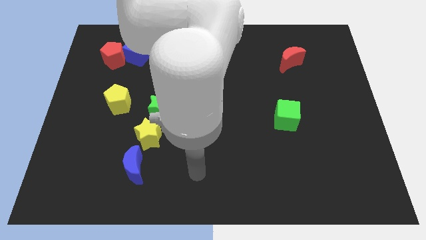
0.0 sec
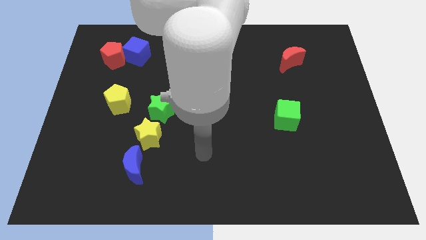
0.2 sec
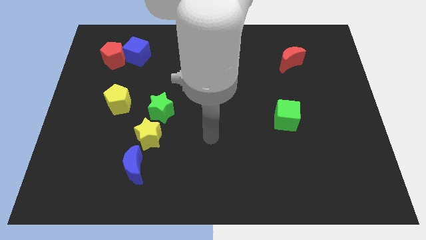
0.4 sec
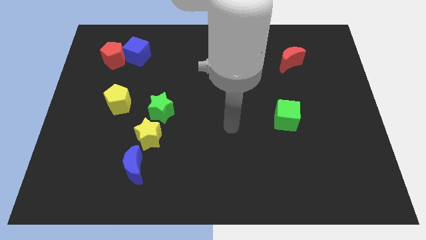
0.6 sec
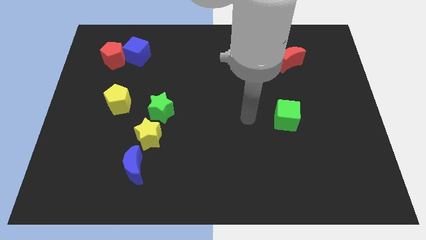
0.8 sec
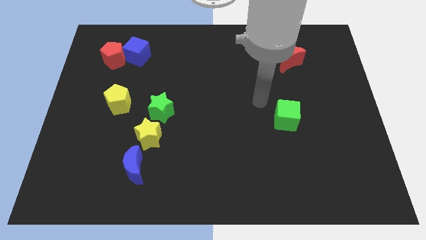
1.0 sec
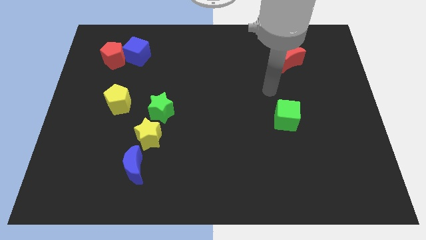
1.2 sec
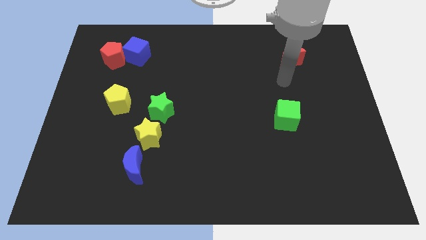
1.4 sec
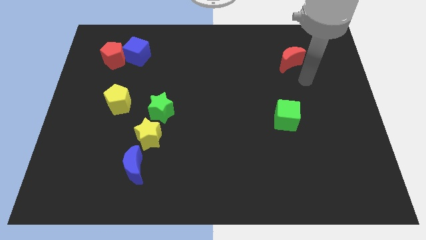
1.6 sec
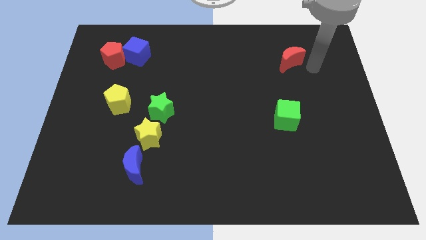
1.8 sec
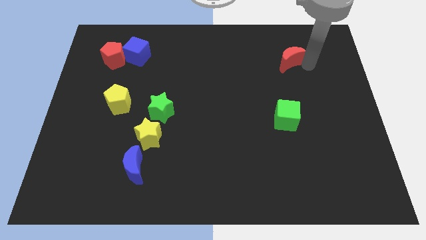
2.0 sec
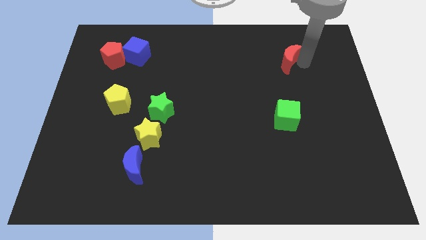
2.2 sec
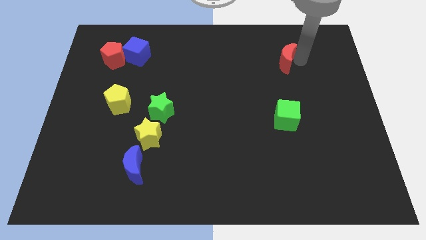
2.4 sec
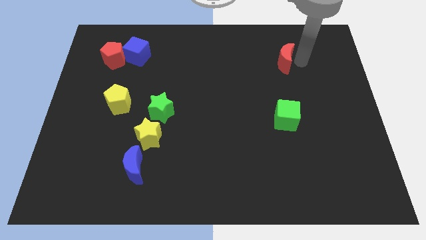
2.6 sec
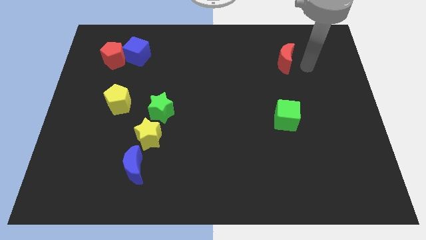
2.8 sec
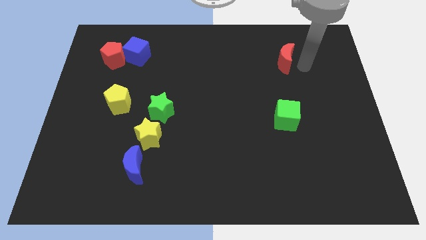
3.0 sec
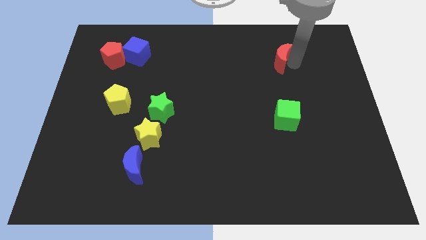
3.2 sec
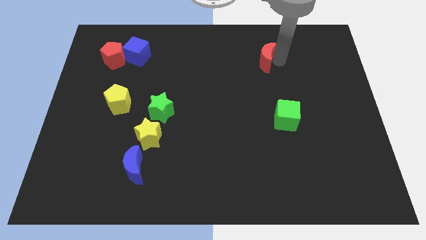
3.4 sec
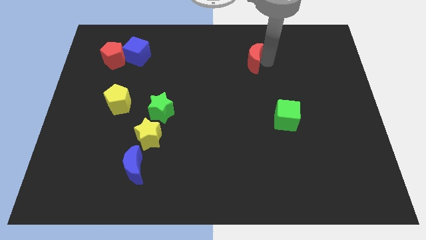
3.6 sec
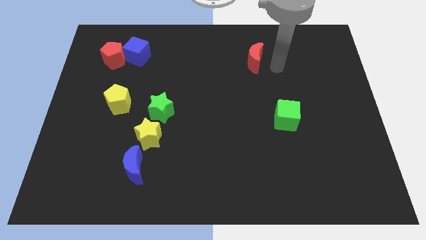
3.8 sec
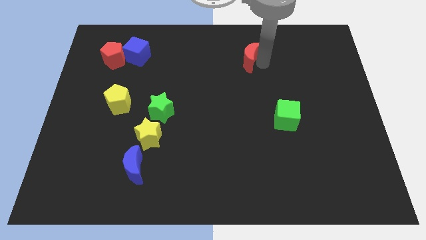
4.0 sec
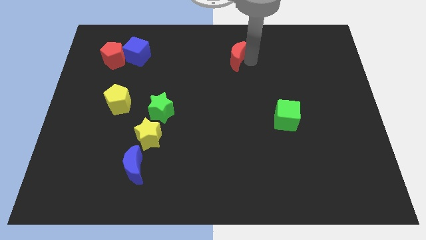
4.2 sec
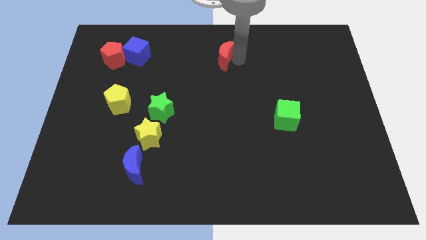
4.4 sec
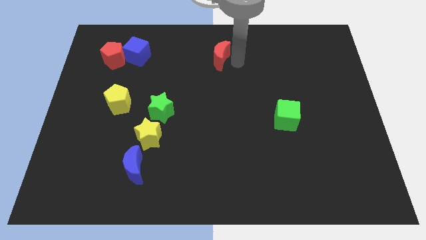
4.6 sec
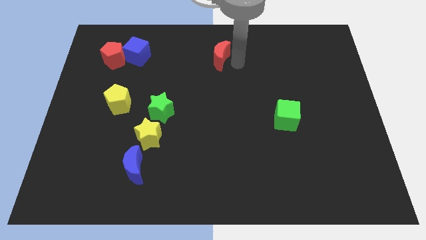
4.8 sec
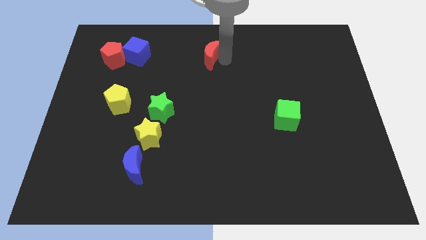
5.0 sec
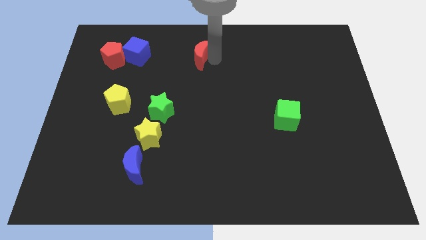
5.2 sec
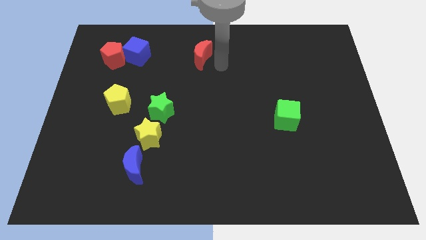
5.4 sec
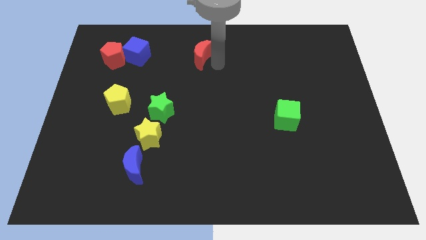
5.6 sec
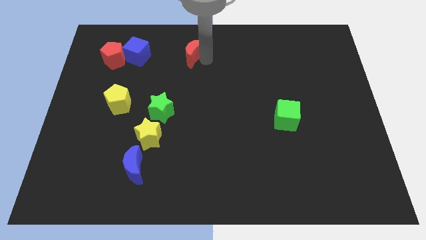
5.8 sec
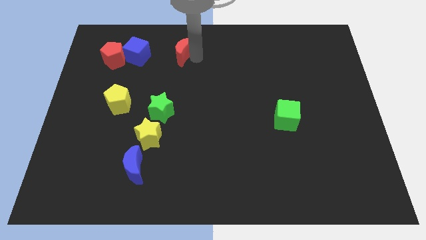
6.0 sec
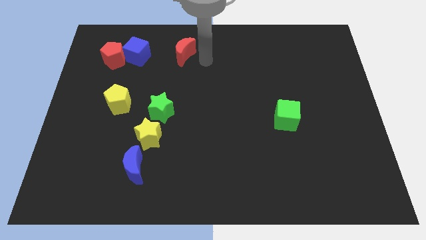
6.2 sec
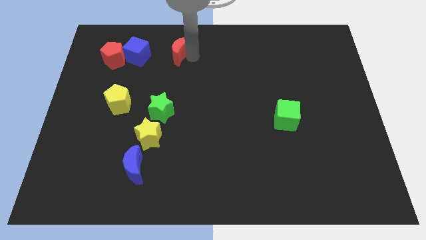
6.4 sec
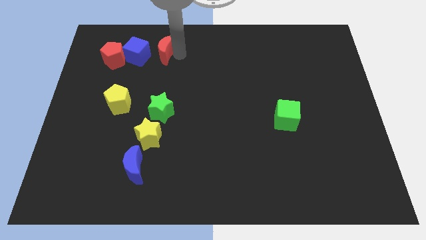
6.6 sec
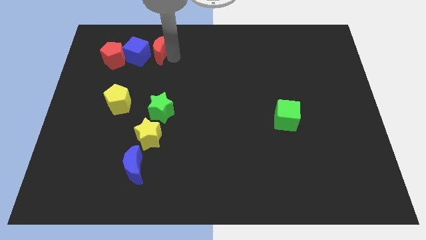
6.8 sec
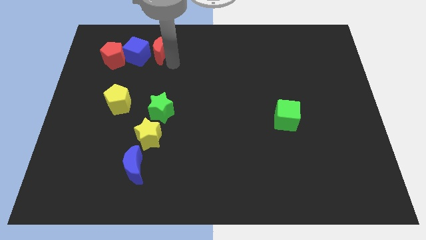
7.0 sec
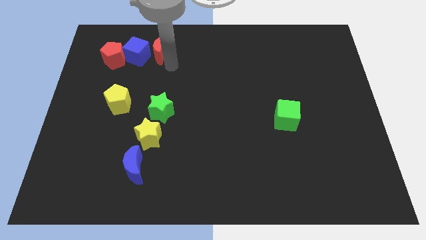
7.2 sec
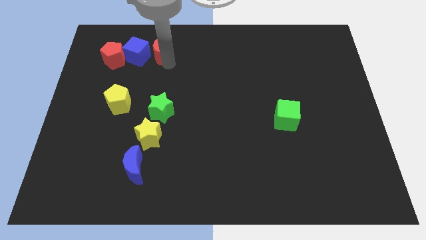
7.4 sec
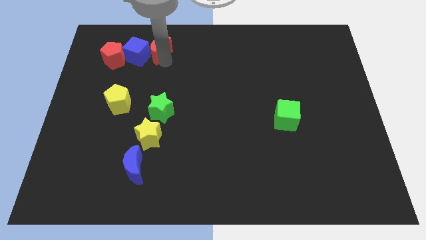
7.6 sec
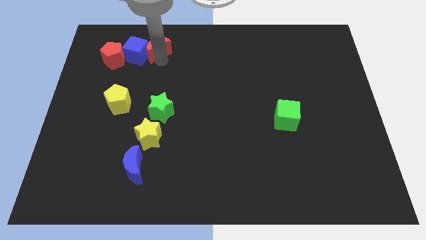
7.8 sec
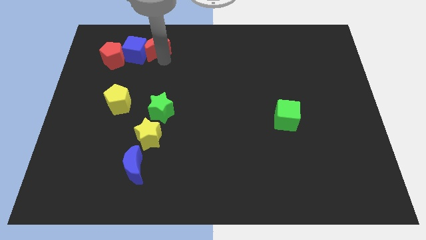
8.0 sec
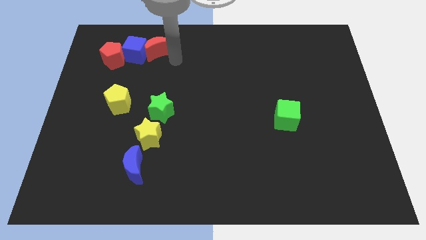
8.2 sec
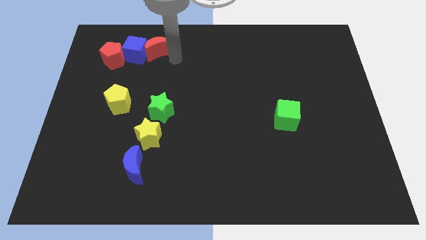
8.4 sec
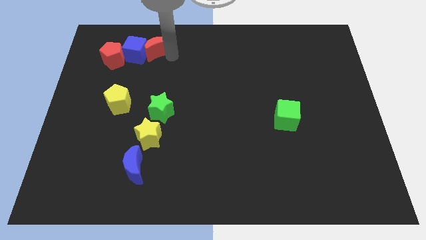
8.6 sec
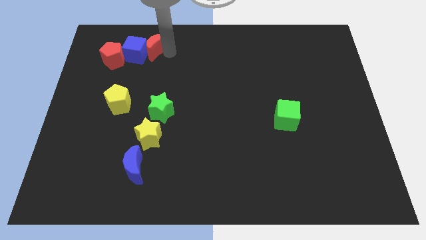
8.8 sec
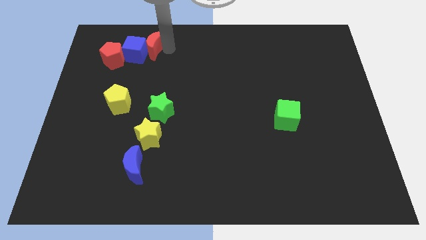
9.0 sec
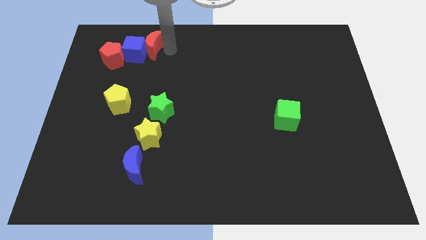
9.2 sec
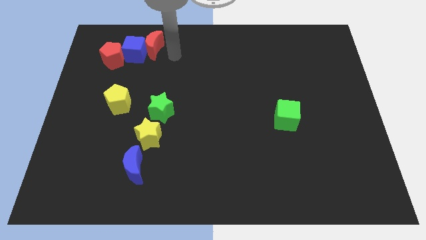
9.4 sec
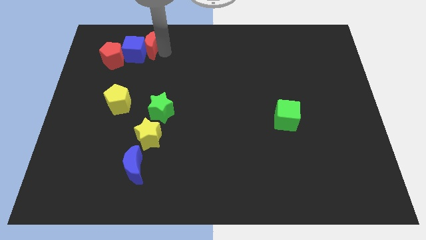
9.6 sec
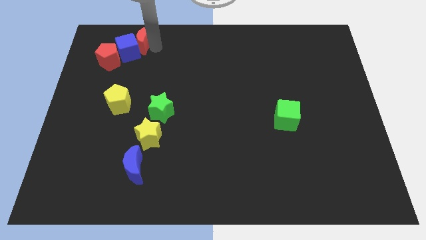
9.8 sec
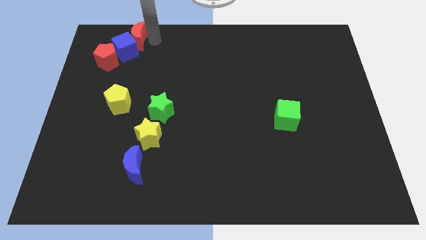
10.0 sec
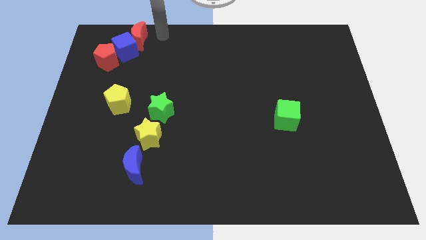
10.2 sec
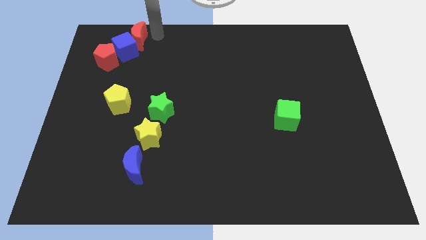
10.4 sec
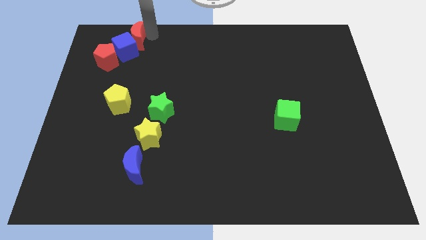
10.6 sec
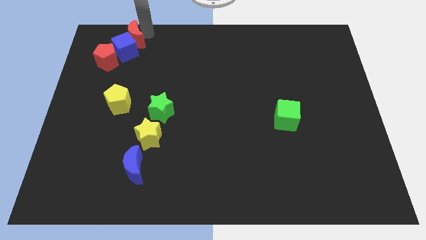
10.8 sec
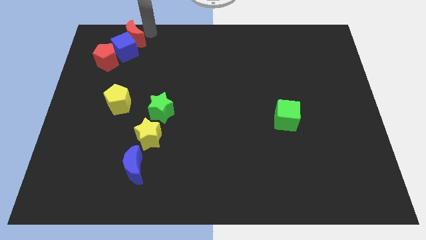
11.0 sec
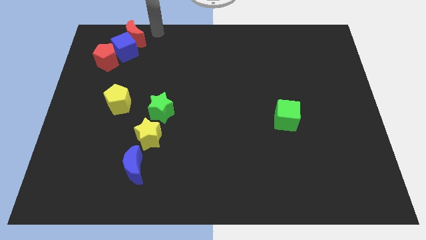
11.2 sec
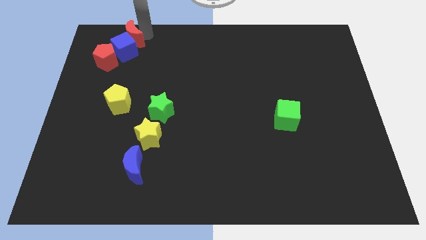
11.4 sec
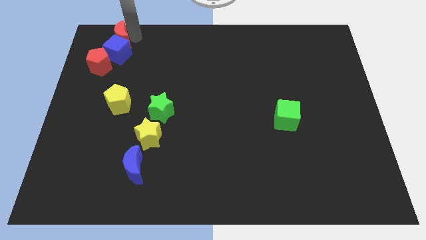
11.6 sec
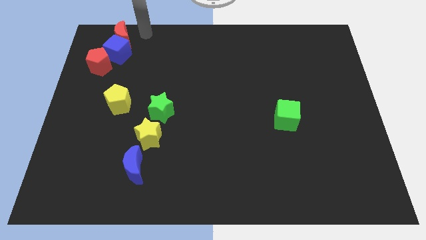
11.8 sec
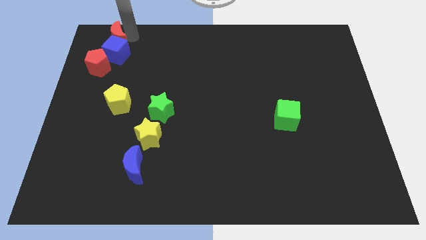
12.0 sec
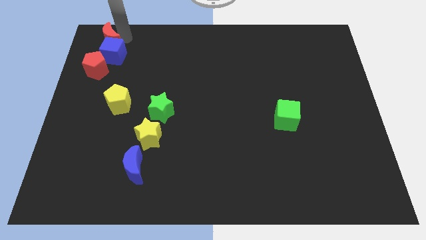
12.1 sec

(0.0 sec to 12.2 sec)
push the red moon to the top left

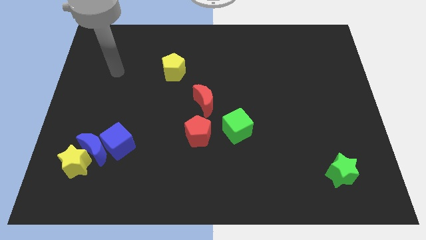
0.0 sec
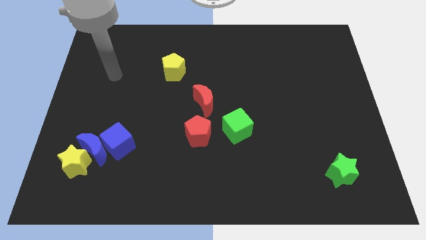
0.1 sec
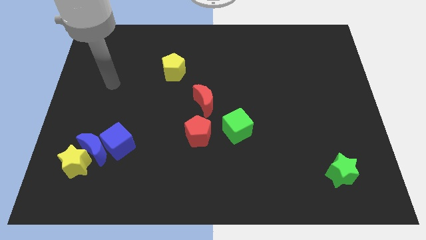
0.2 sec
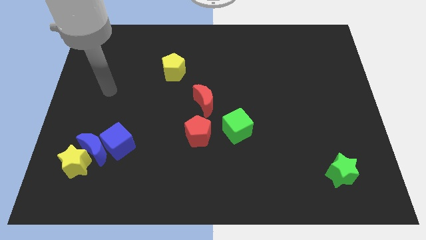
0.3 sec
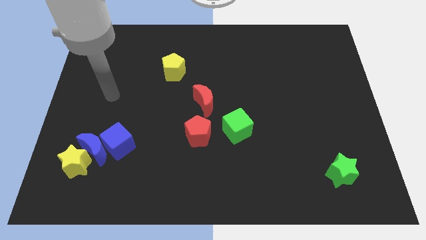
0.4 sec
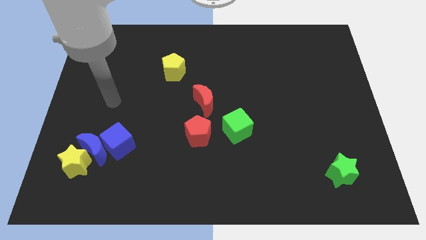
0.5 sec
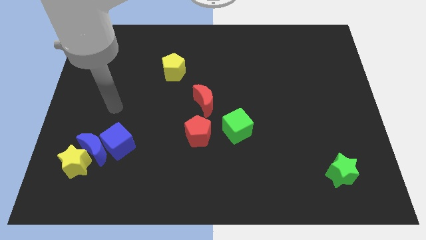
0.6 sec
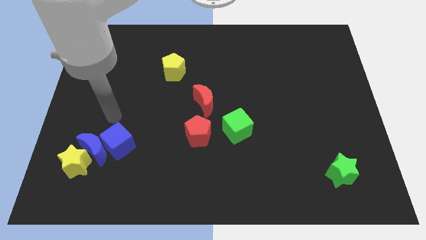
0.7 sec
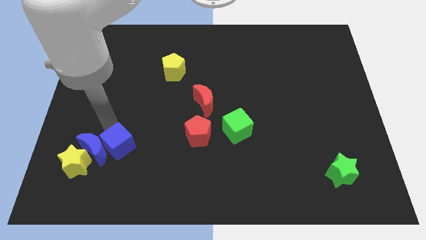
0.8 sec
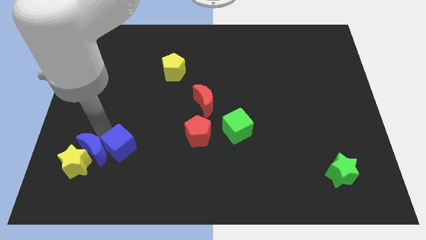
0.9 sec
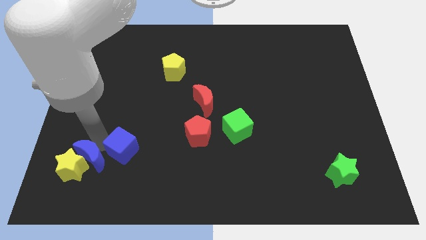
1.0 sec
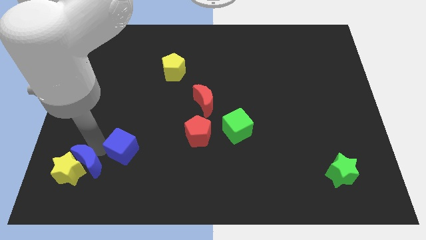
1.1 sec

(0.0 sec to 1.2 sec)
slide the yellow star to the bottom left corner
